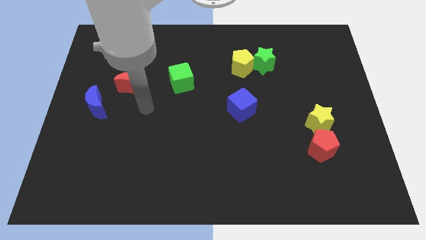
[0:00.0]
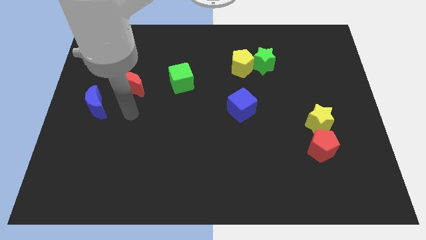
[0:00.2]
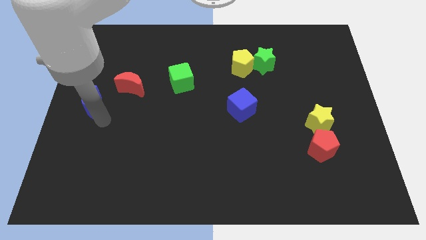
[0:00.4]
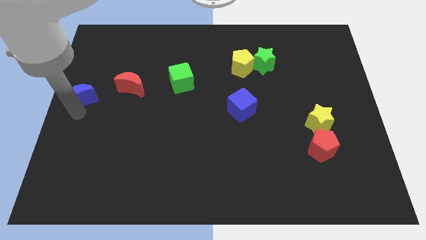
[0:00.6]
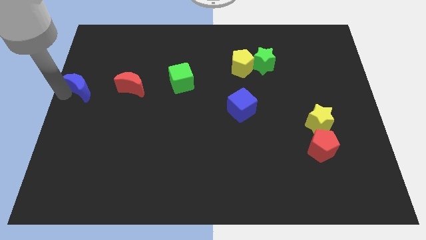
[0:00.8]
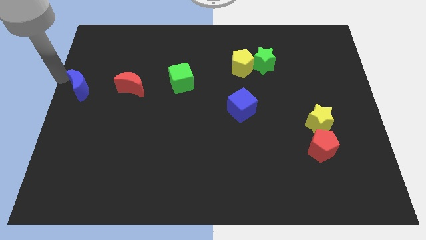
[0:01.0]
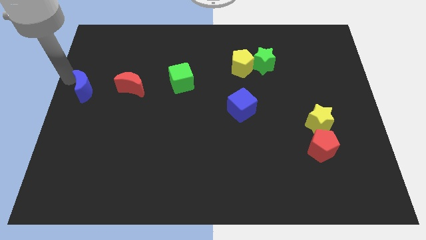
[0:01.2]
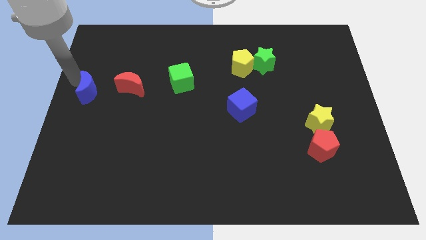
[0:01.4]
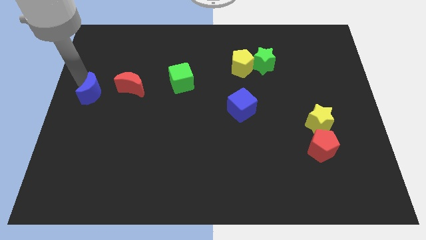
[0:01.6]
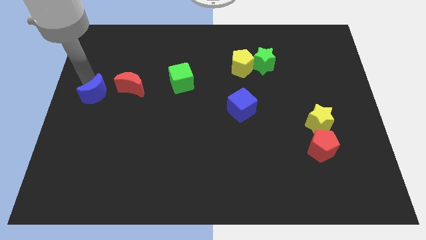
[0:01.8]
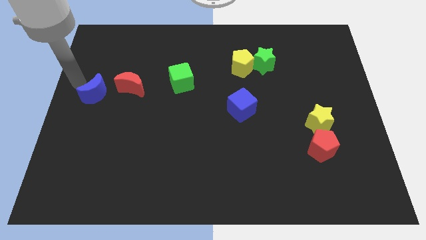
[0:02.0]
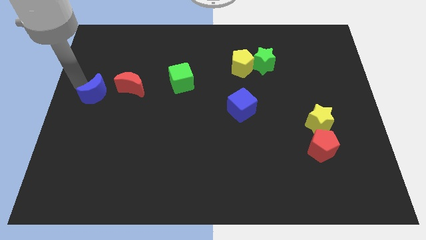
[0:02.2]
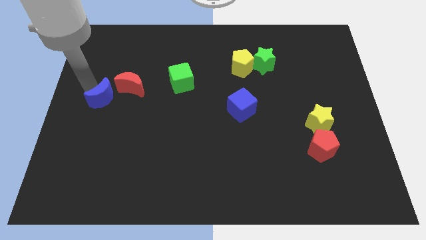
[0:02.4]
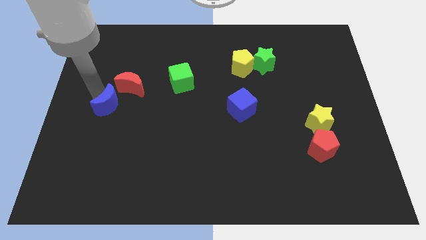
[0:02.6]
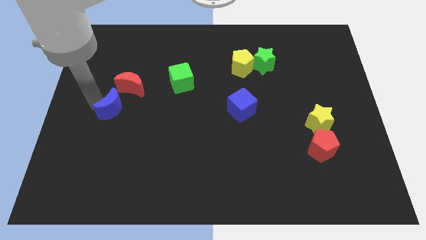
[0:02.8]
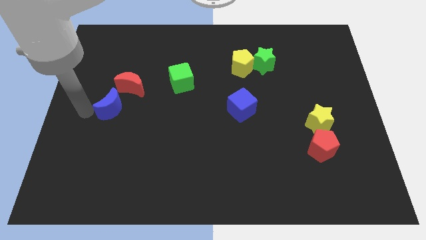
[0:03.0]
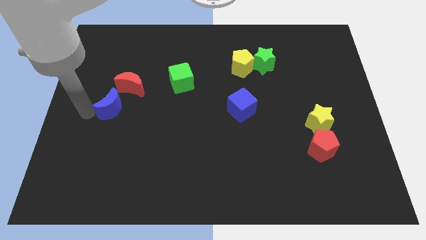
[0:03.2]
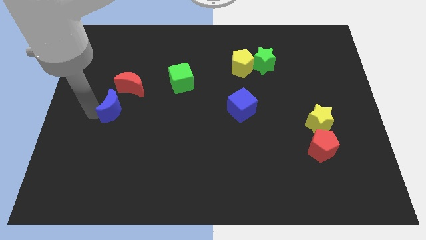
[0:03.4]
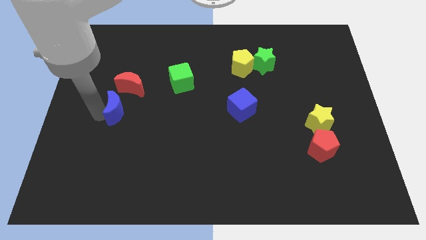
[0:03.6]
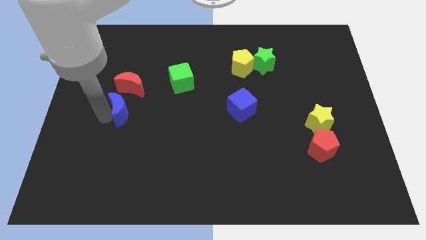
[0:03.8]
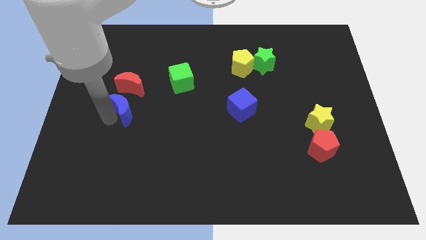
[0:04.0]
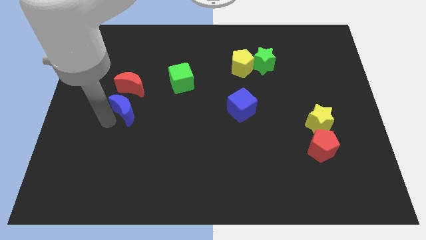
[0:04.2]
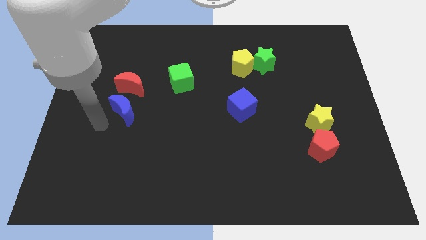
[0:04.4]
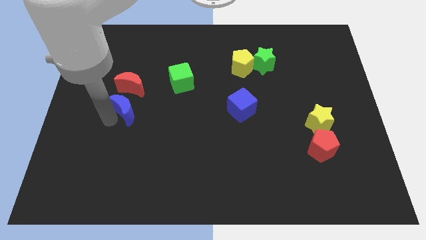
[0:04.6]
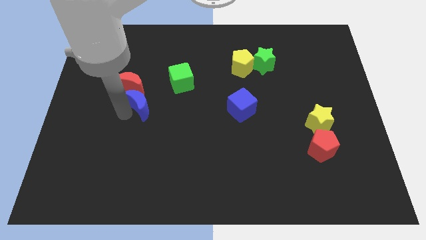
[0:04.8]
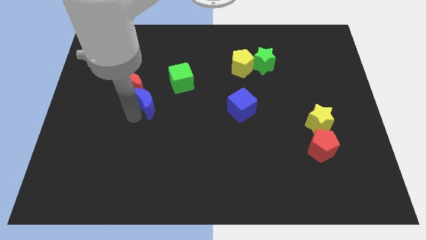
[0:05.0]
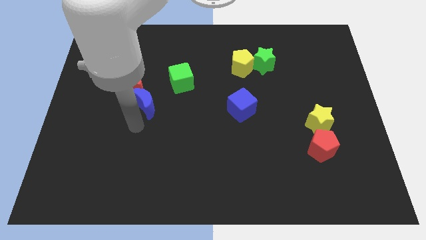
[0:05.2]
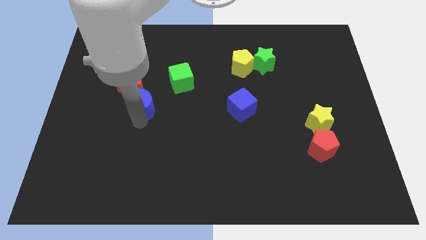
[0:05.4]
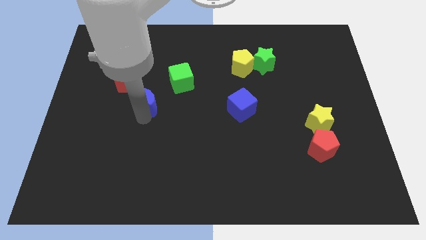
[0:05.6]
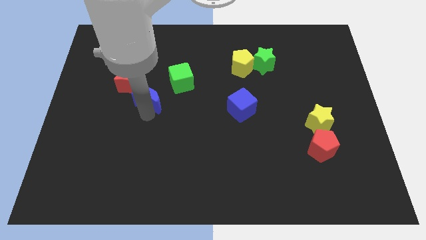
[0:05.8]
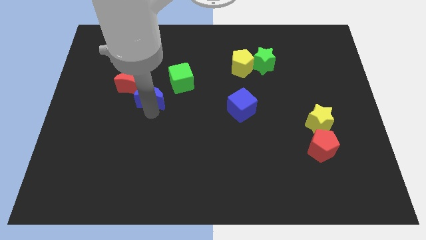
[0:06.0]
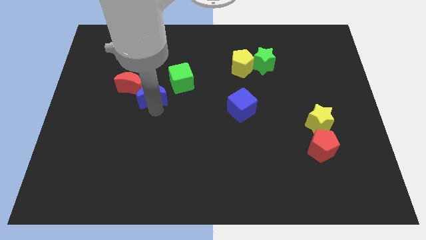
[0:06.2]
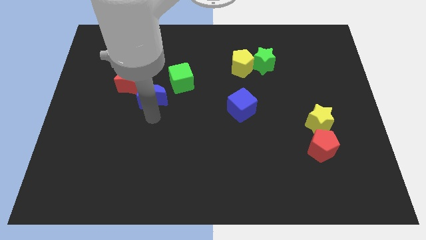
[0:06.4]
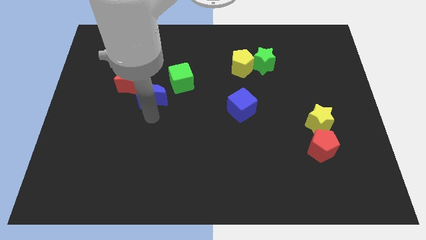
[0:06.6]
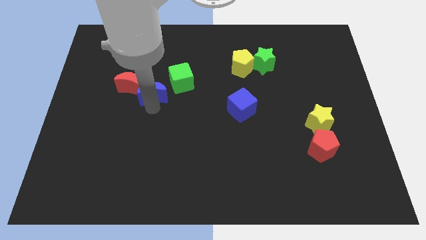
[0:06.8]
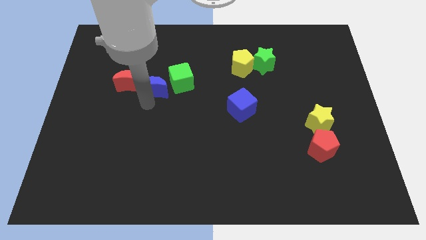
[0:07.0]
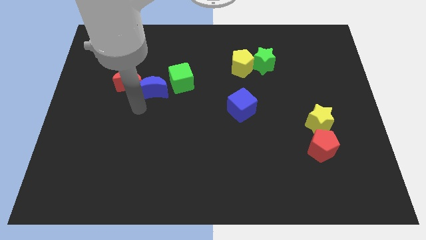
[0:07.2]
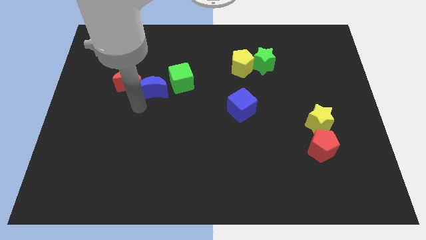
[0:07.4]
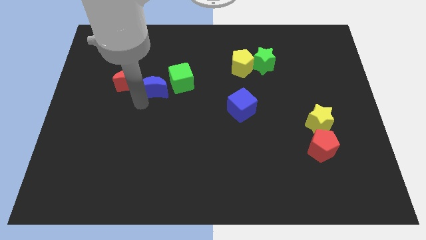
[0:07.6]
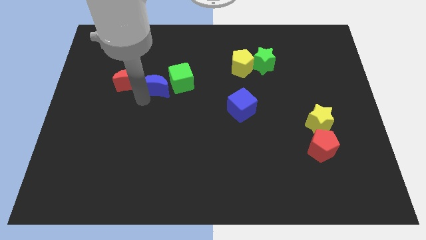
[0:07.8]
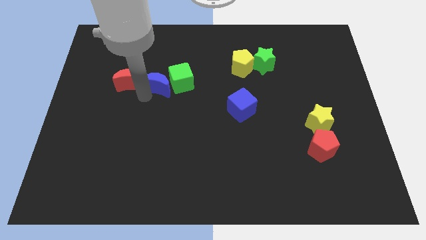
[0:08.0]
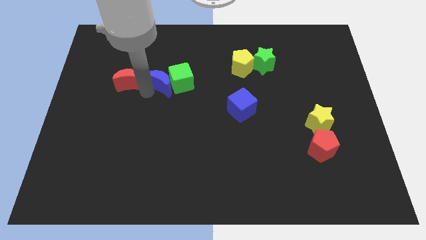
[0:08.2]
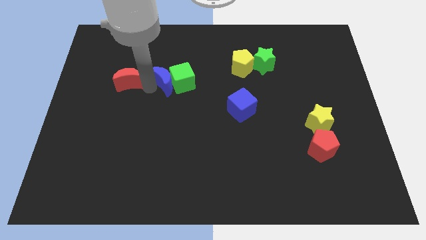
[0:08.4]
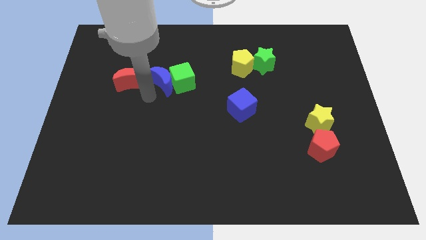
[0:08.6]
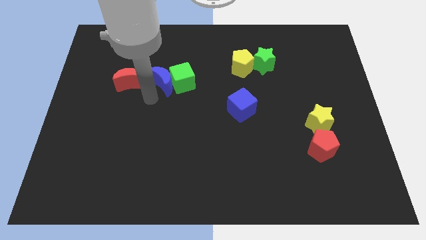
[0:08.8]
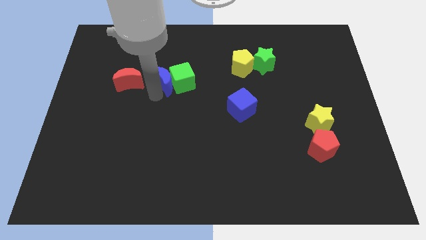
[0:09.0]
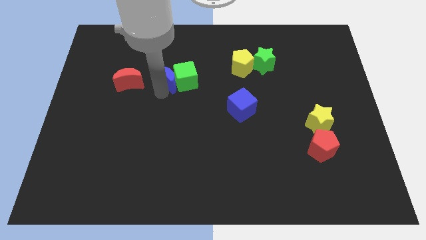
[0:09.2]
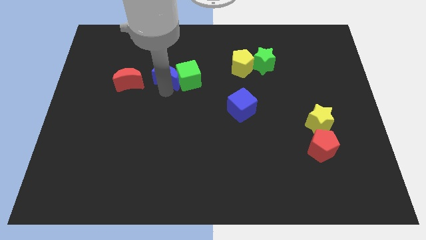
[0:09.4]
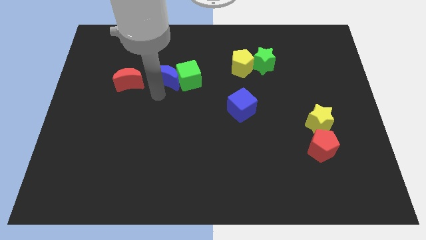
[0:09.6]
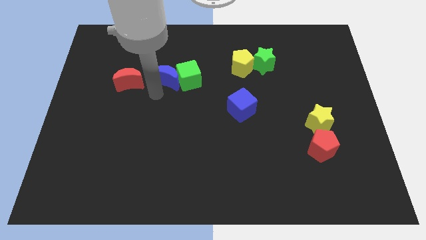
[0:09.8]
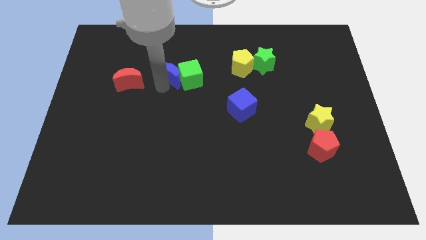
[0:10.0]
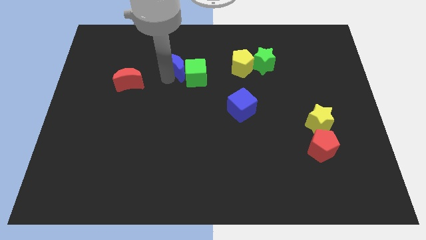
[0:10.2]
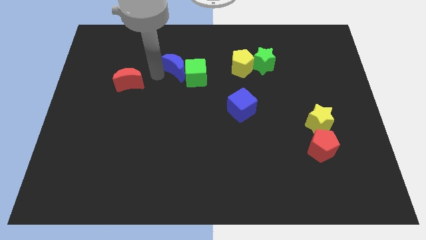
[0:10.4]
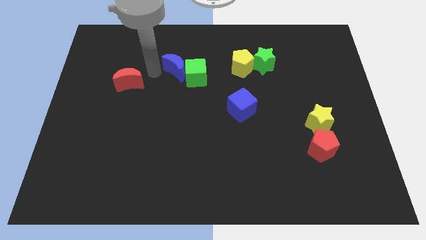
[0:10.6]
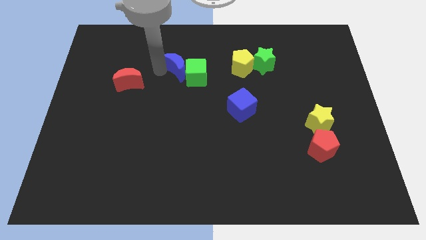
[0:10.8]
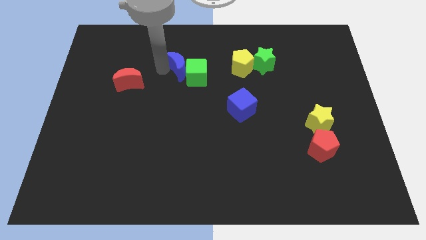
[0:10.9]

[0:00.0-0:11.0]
move the blue moon left of the yellow pentagon

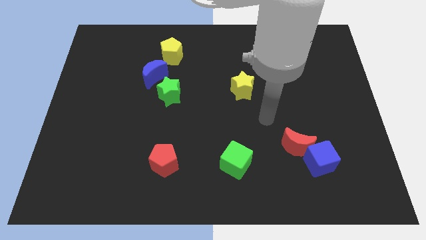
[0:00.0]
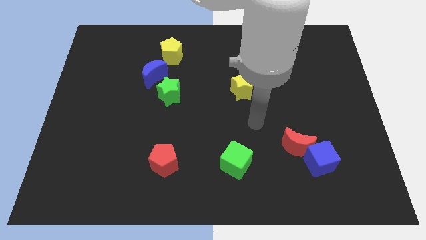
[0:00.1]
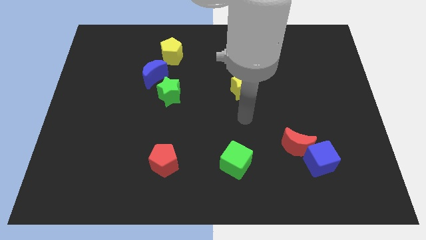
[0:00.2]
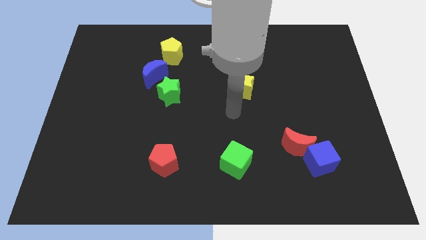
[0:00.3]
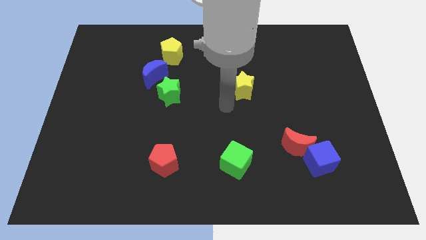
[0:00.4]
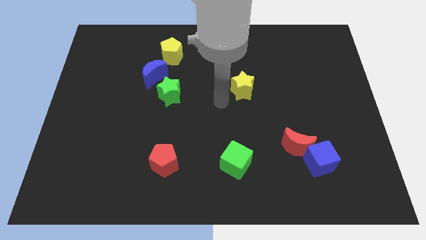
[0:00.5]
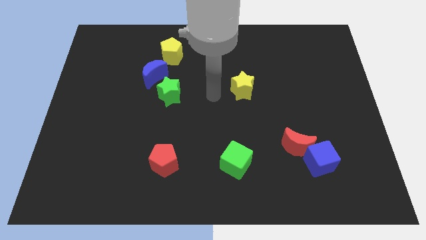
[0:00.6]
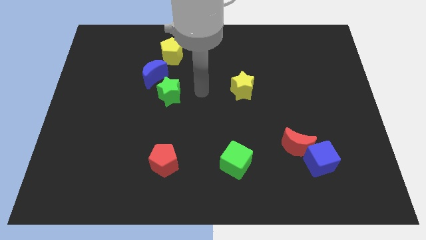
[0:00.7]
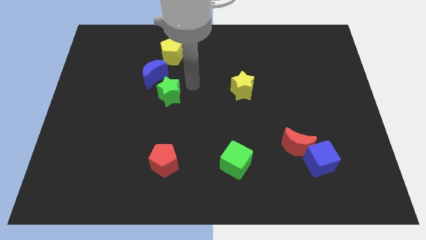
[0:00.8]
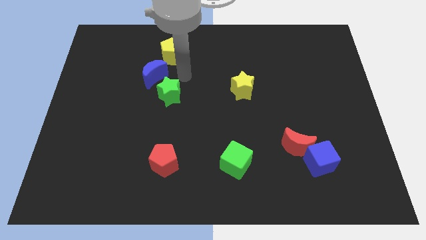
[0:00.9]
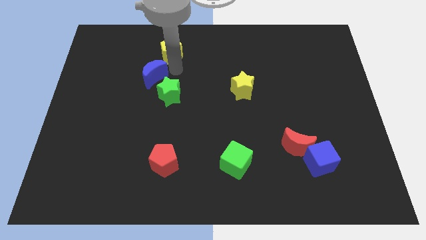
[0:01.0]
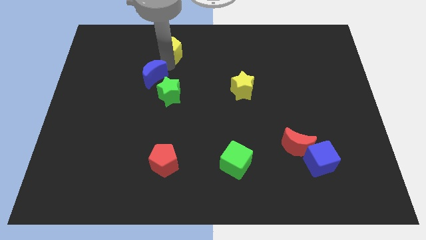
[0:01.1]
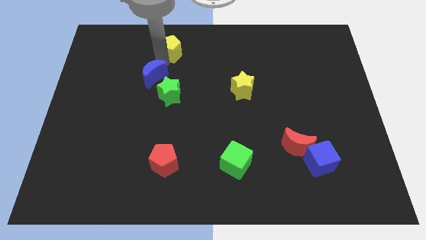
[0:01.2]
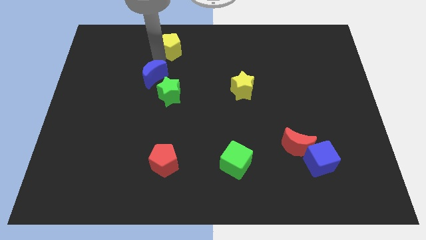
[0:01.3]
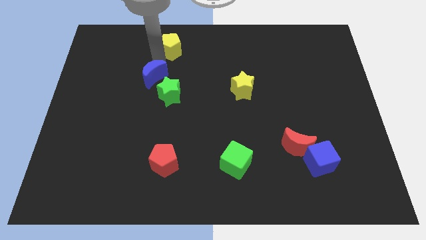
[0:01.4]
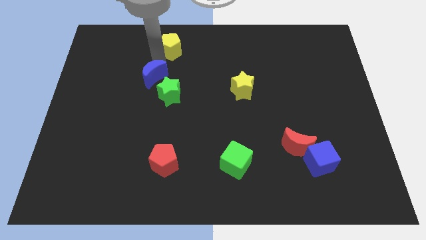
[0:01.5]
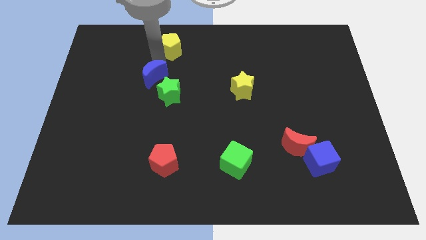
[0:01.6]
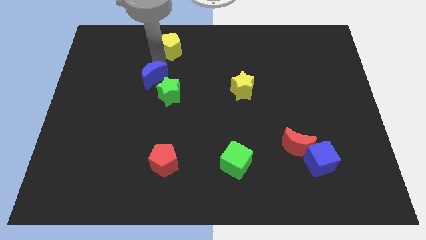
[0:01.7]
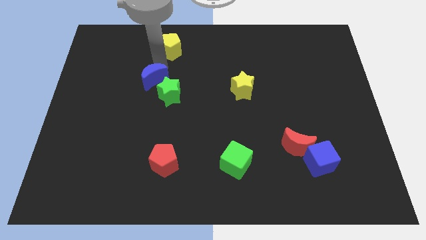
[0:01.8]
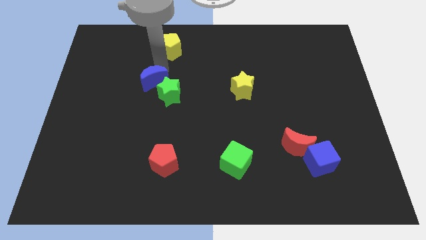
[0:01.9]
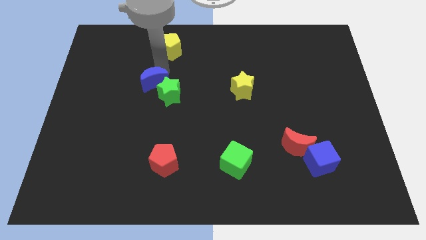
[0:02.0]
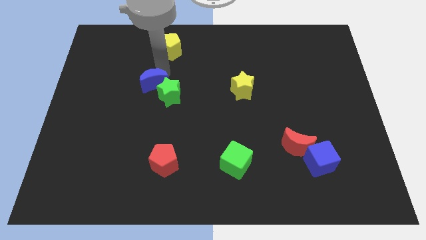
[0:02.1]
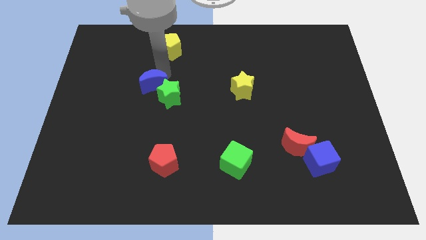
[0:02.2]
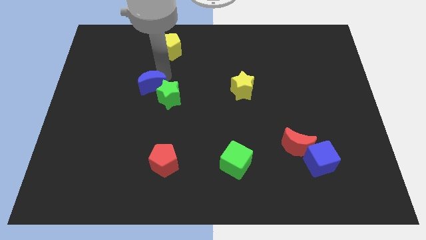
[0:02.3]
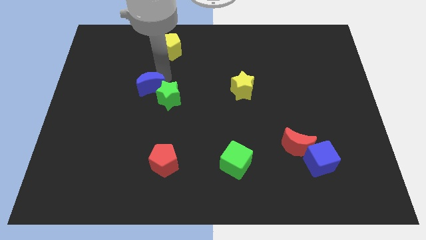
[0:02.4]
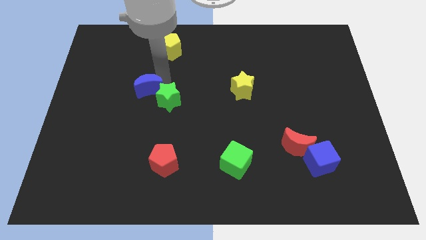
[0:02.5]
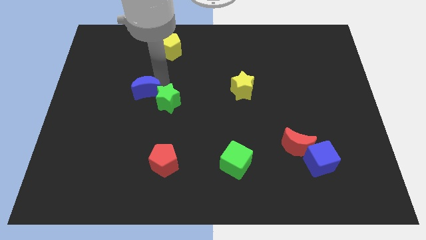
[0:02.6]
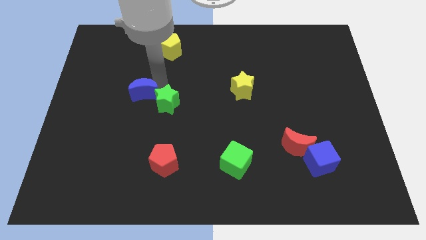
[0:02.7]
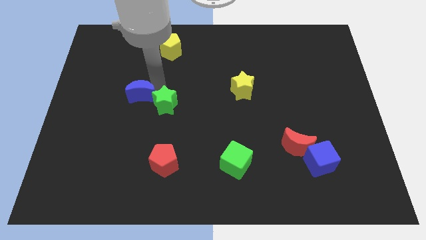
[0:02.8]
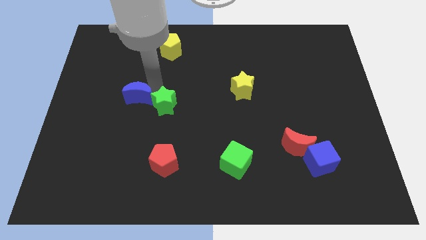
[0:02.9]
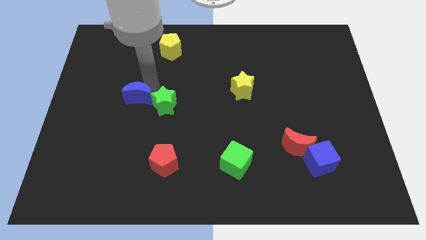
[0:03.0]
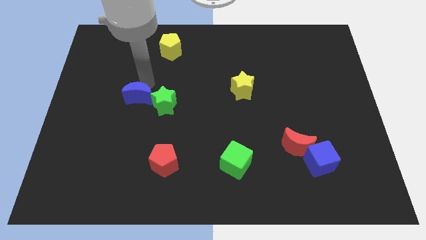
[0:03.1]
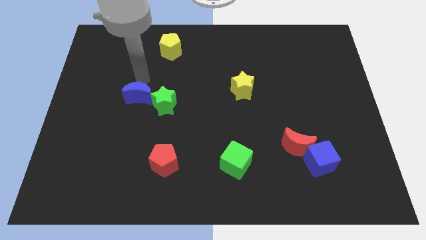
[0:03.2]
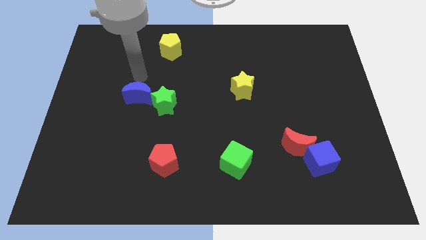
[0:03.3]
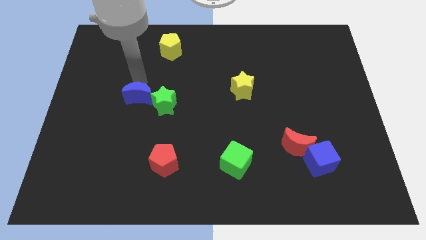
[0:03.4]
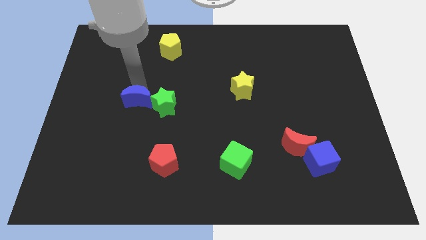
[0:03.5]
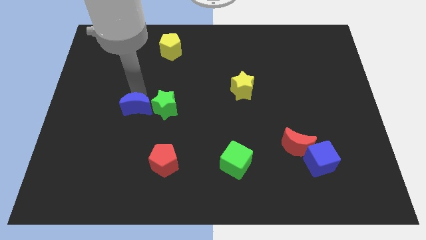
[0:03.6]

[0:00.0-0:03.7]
put the blue moon to the bottom left side of the green star
